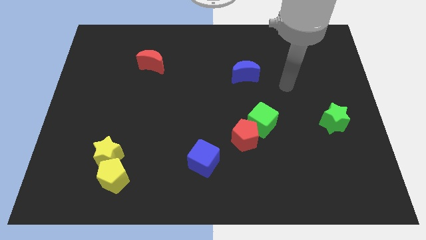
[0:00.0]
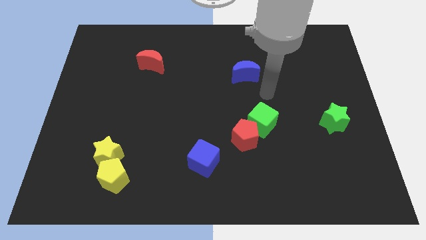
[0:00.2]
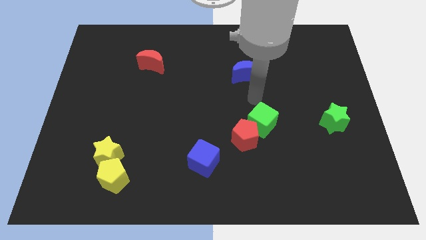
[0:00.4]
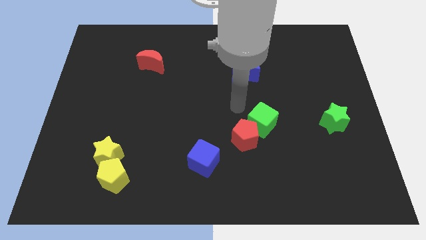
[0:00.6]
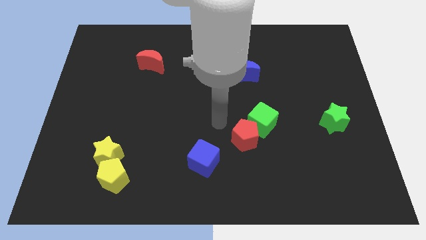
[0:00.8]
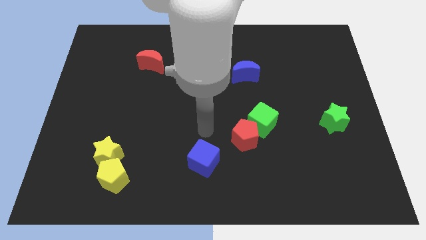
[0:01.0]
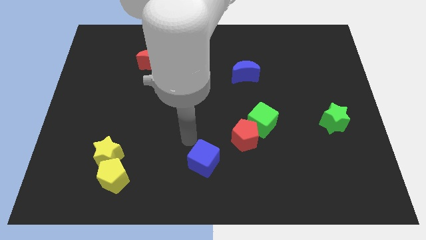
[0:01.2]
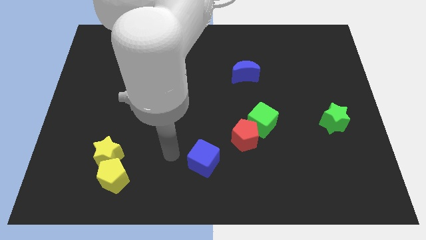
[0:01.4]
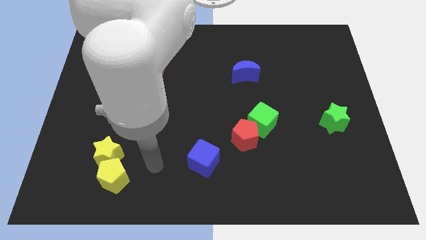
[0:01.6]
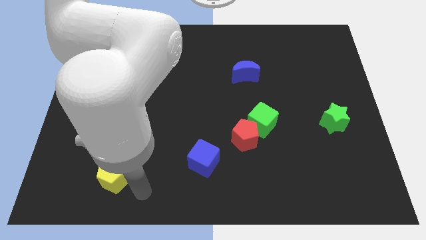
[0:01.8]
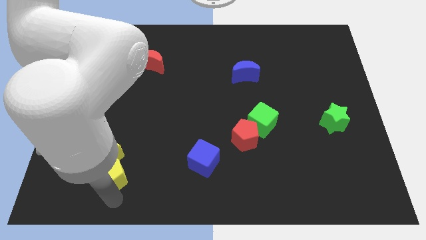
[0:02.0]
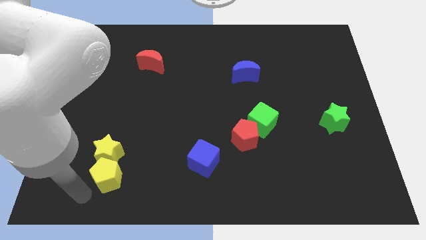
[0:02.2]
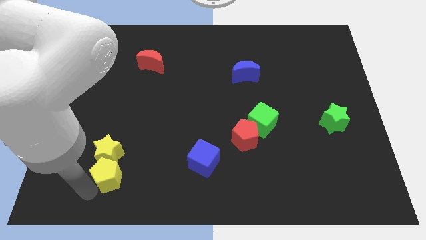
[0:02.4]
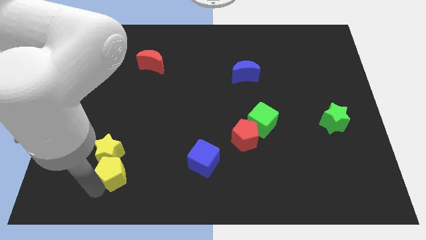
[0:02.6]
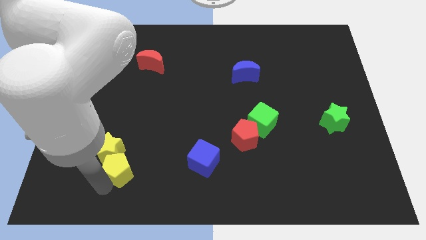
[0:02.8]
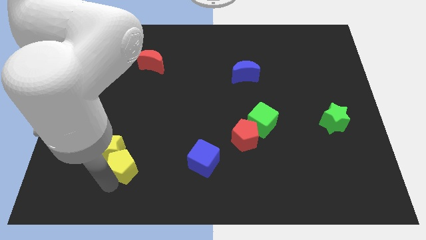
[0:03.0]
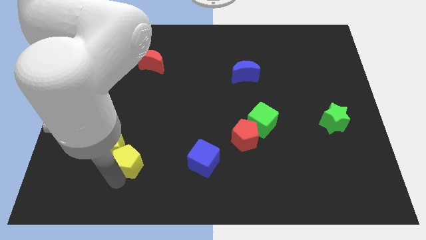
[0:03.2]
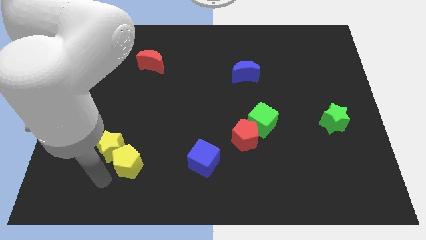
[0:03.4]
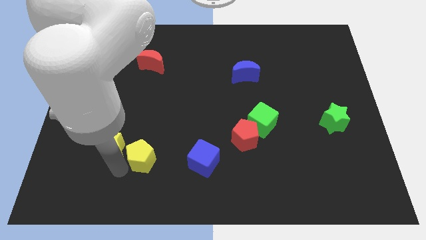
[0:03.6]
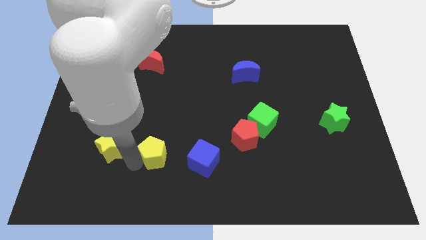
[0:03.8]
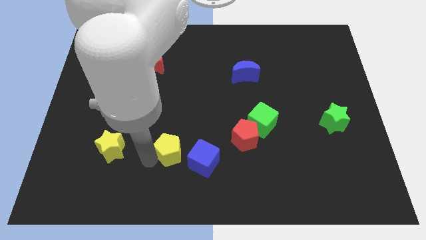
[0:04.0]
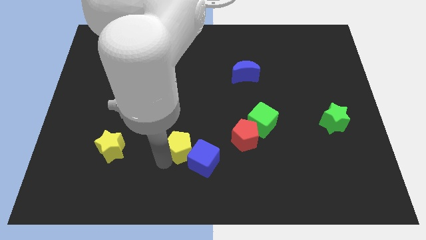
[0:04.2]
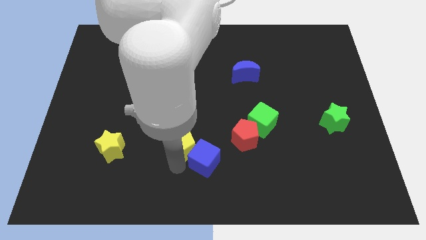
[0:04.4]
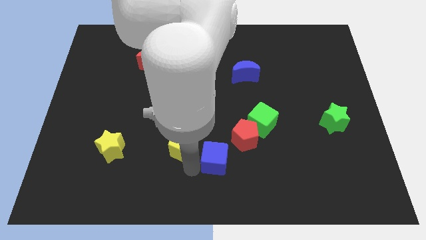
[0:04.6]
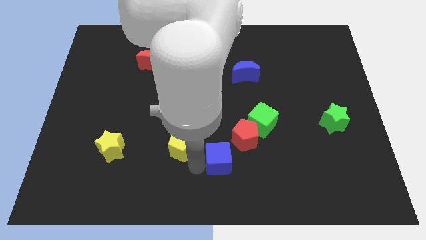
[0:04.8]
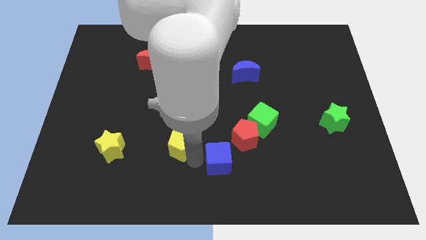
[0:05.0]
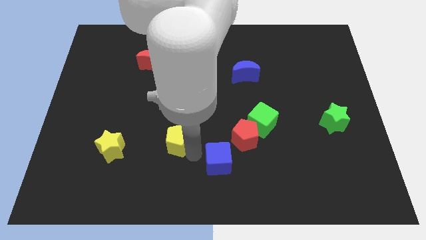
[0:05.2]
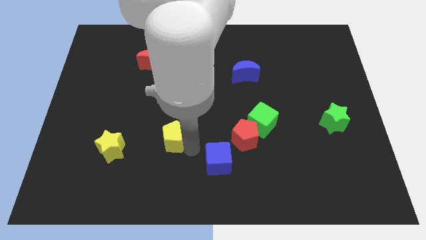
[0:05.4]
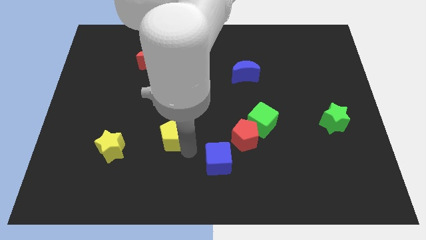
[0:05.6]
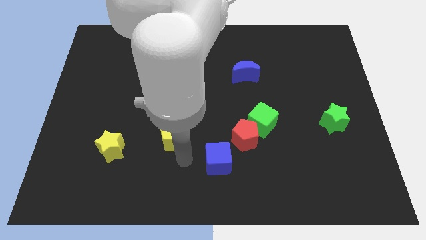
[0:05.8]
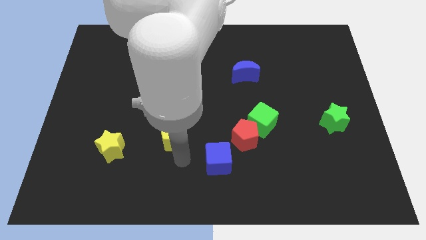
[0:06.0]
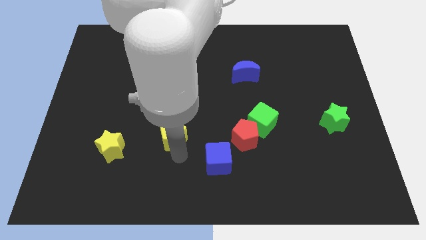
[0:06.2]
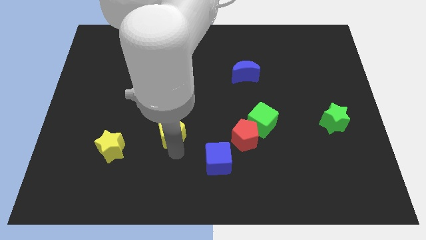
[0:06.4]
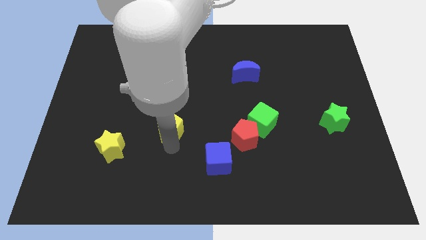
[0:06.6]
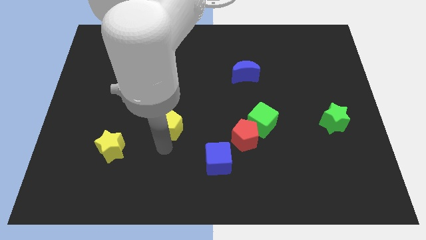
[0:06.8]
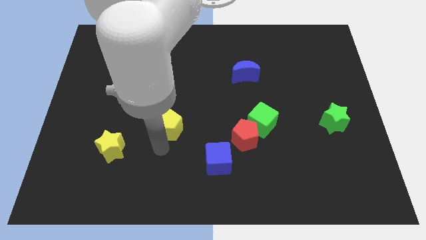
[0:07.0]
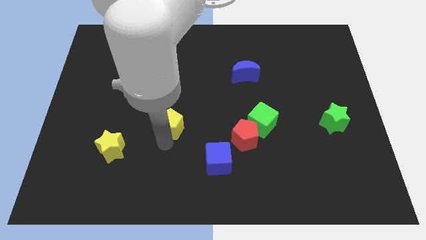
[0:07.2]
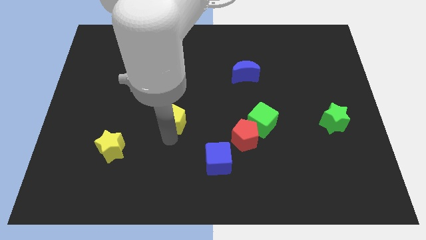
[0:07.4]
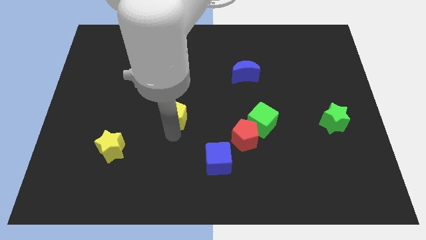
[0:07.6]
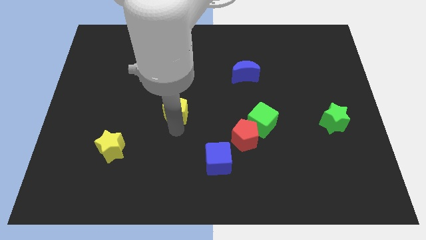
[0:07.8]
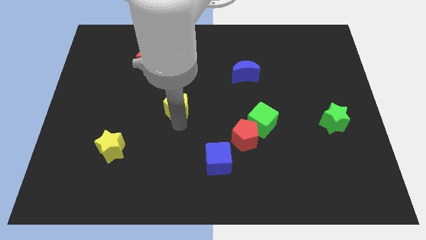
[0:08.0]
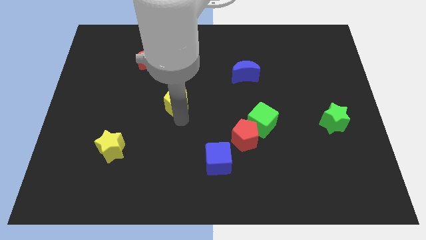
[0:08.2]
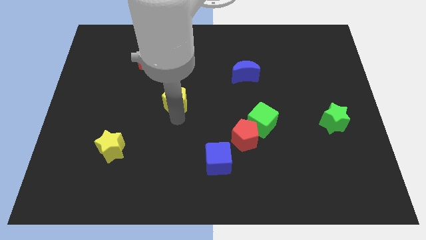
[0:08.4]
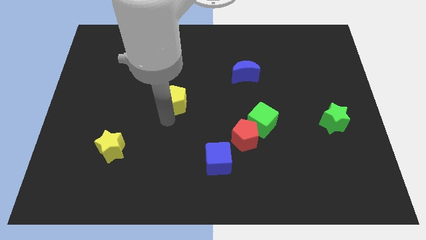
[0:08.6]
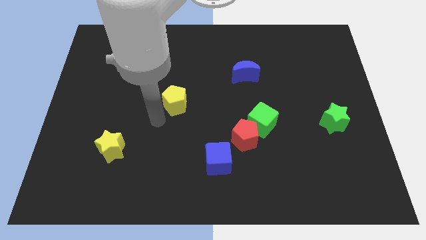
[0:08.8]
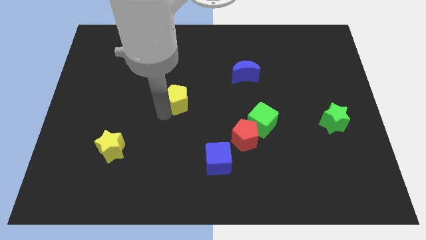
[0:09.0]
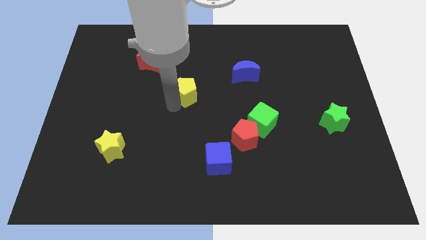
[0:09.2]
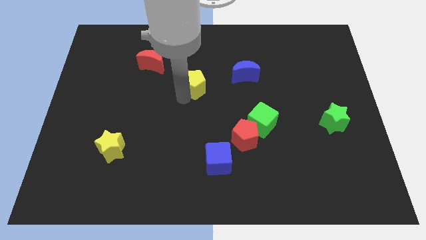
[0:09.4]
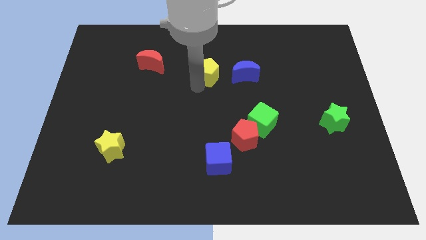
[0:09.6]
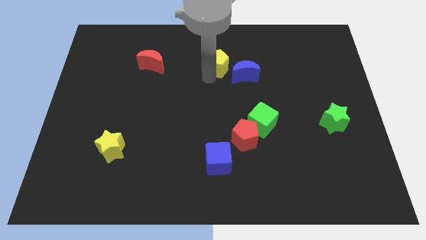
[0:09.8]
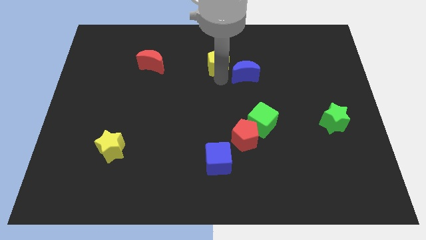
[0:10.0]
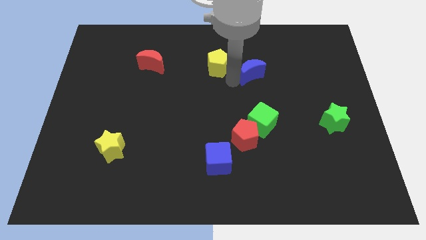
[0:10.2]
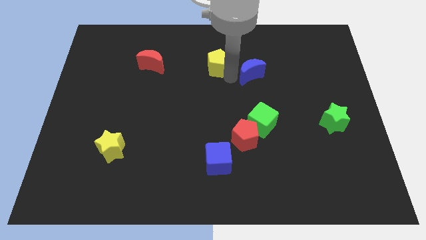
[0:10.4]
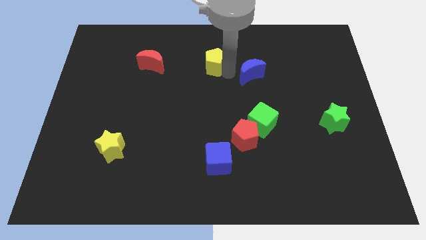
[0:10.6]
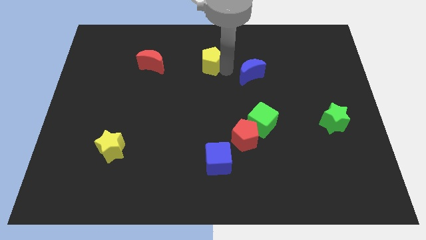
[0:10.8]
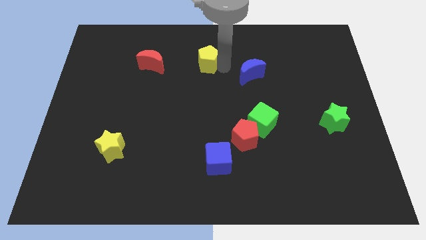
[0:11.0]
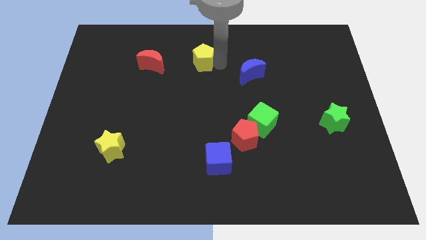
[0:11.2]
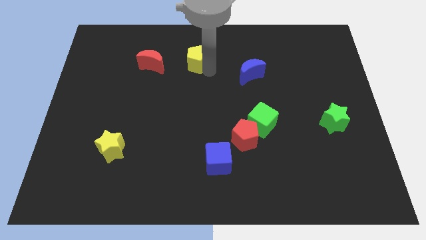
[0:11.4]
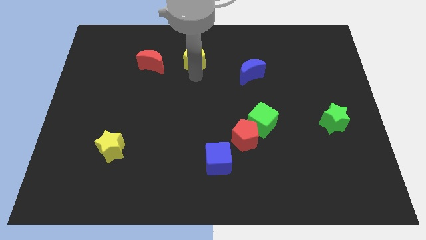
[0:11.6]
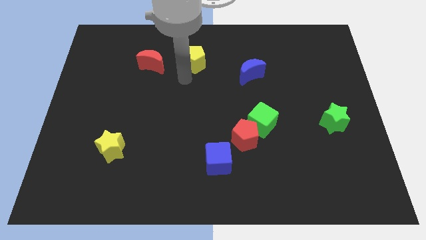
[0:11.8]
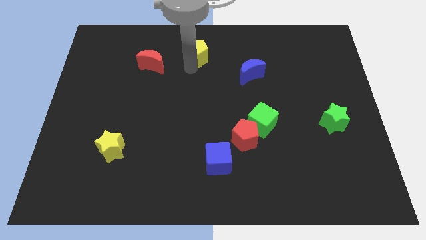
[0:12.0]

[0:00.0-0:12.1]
move the yellow pentagon to the top side

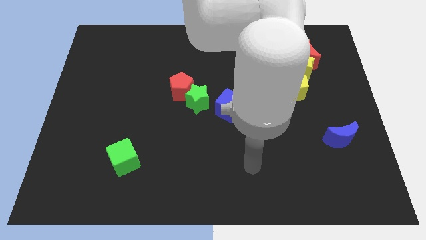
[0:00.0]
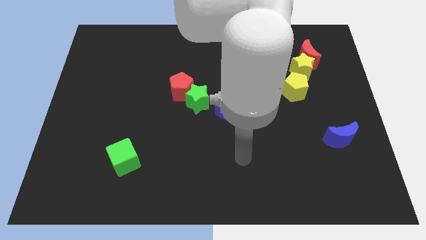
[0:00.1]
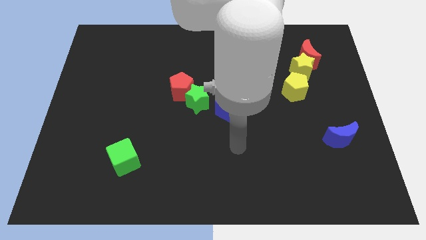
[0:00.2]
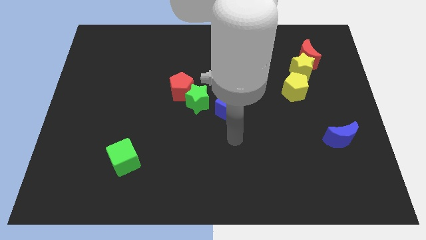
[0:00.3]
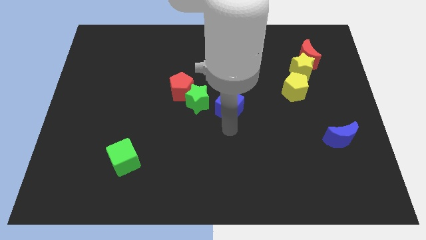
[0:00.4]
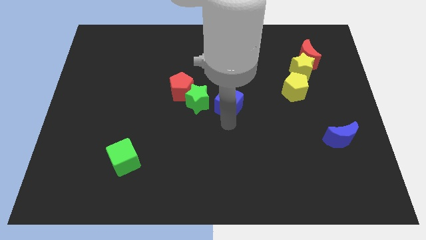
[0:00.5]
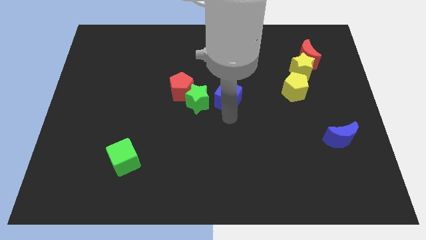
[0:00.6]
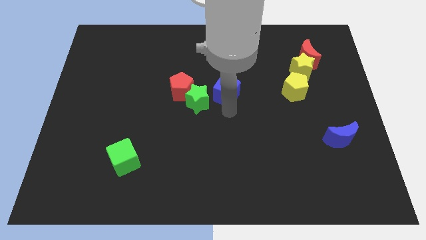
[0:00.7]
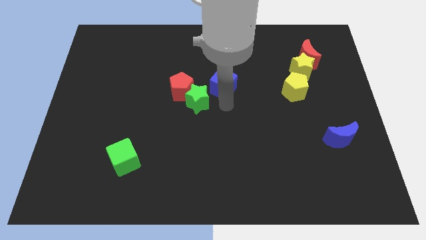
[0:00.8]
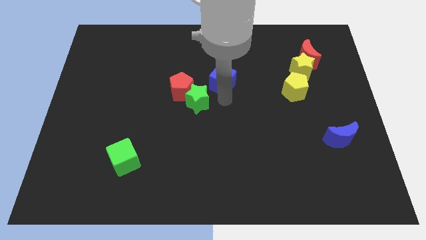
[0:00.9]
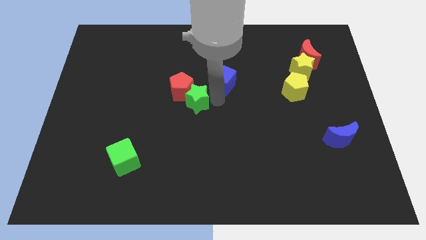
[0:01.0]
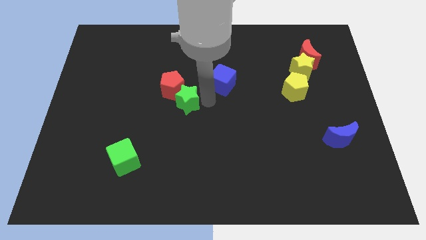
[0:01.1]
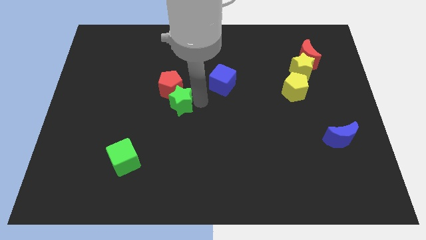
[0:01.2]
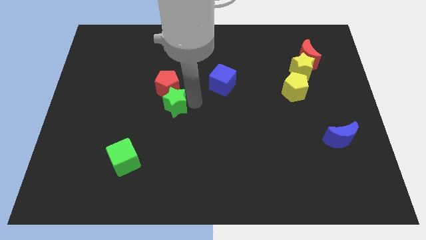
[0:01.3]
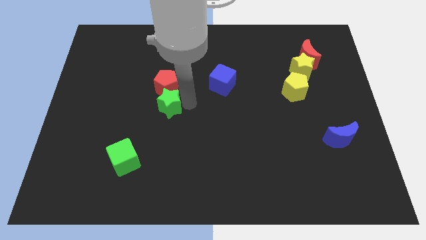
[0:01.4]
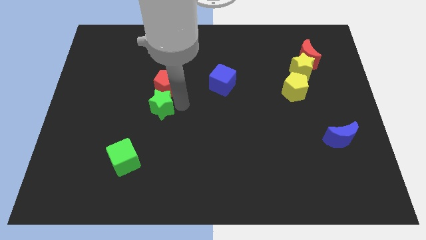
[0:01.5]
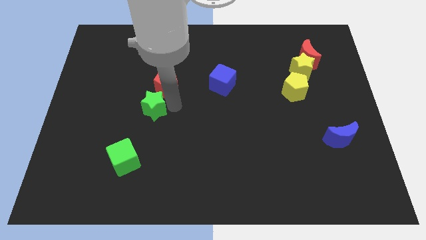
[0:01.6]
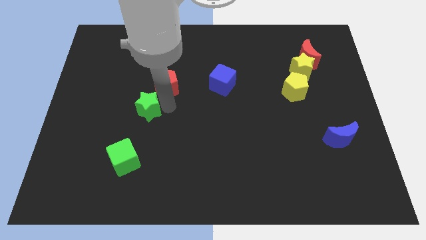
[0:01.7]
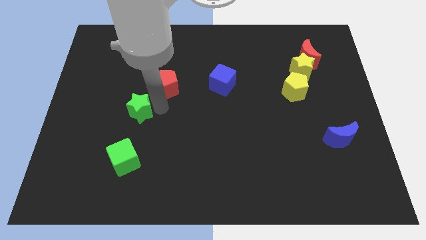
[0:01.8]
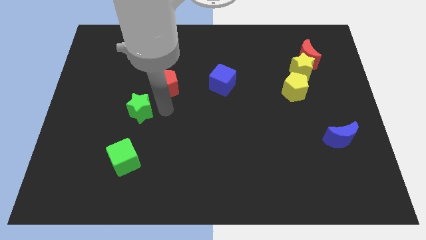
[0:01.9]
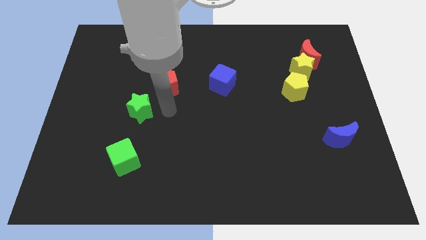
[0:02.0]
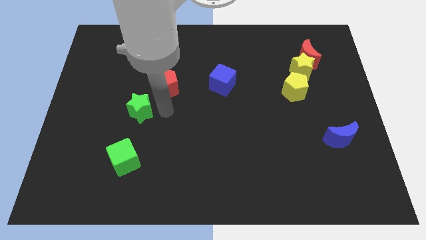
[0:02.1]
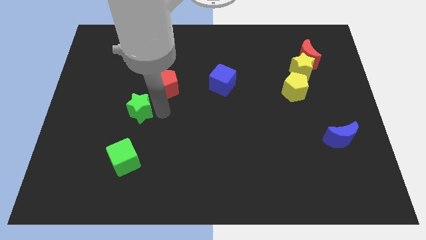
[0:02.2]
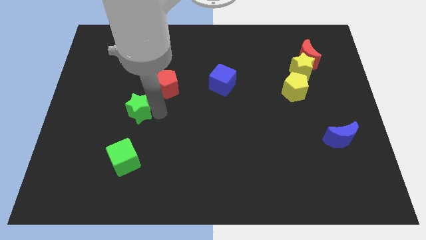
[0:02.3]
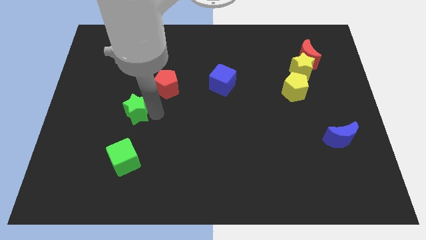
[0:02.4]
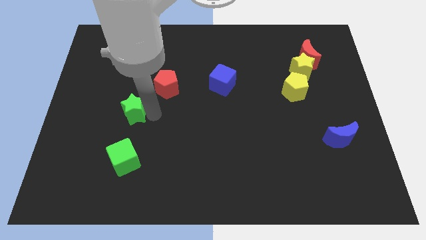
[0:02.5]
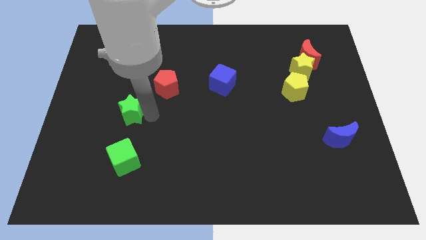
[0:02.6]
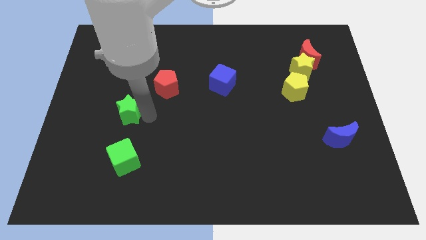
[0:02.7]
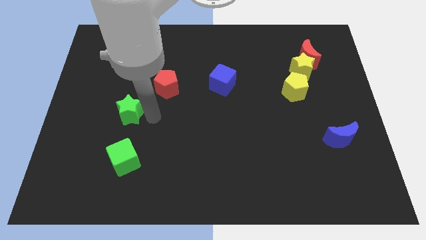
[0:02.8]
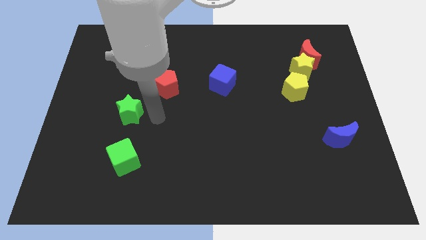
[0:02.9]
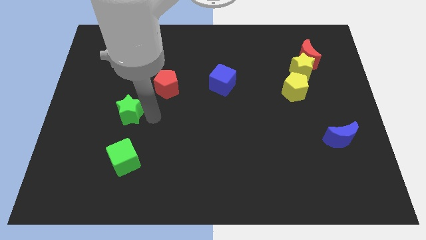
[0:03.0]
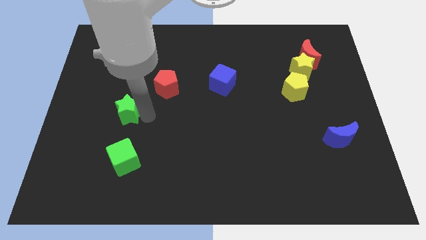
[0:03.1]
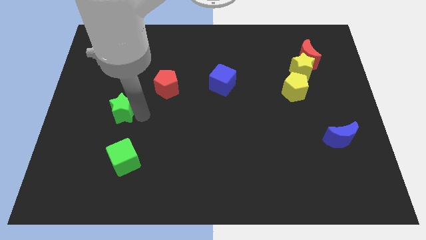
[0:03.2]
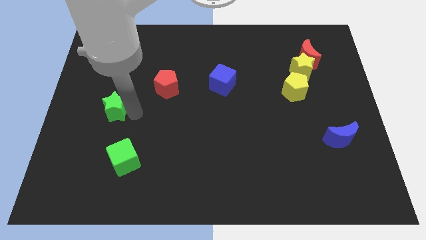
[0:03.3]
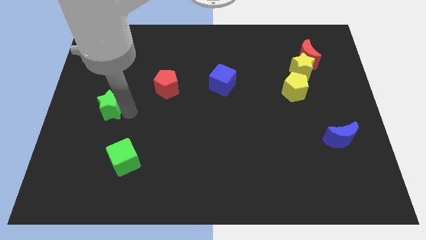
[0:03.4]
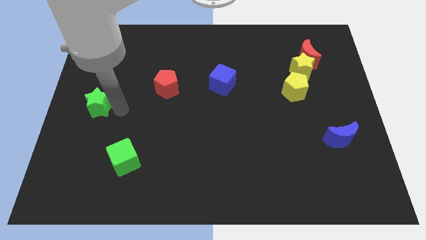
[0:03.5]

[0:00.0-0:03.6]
put the green star to the left side of the board
